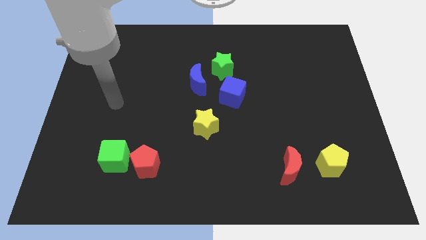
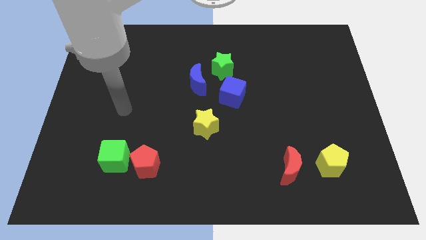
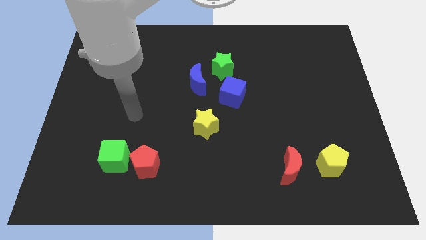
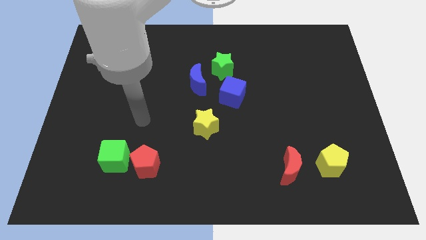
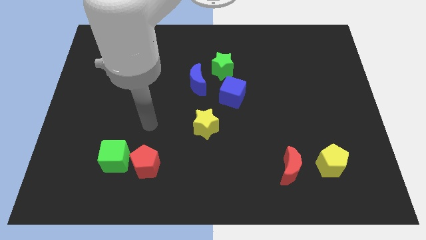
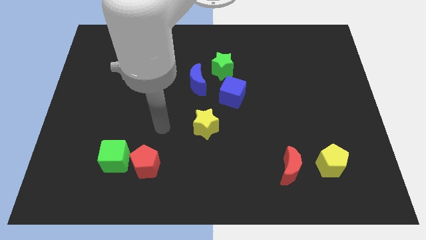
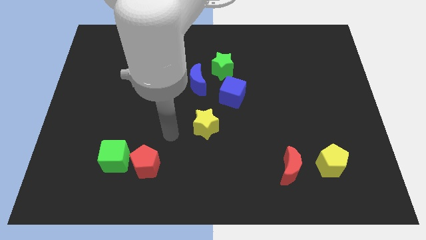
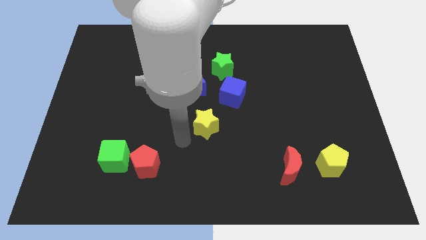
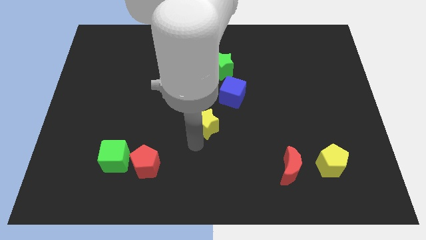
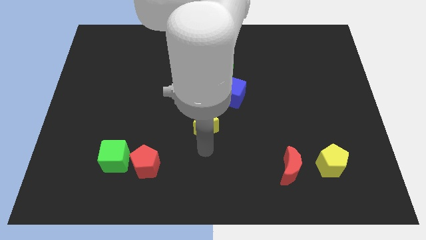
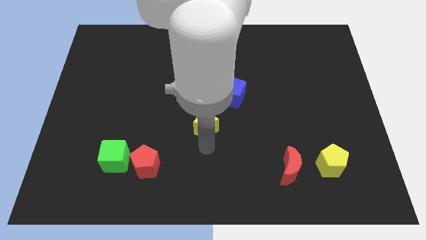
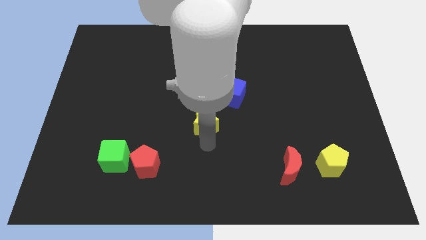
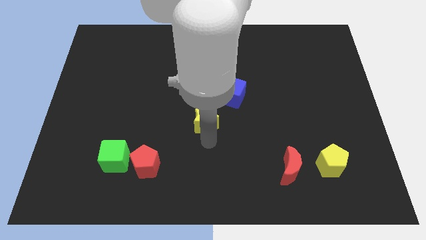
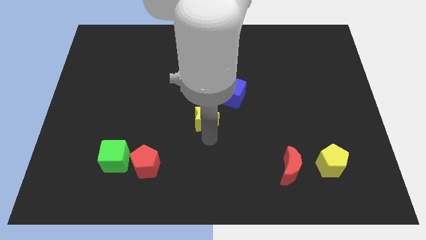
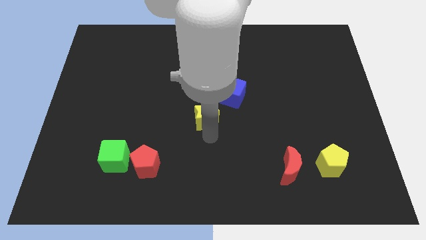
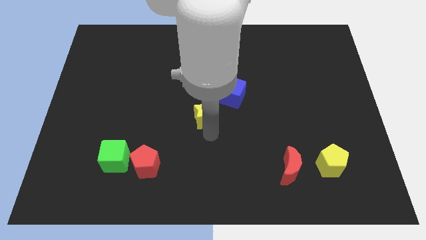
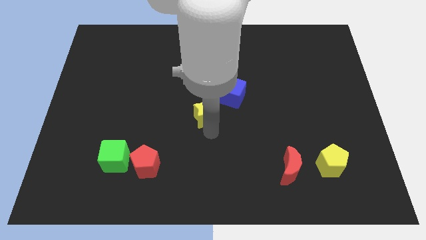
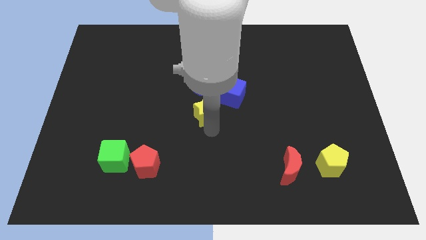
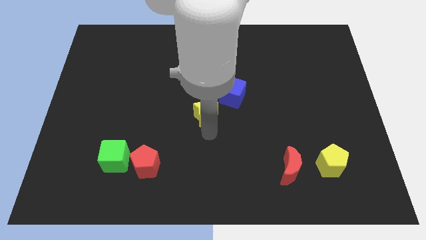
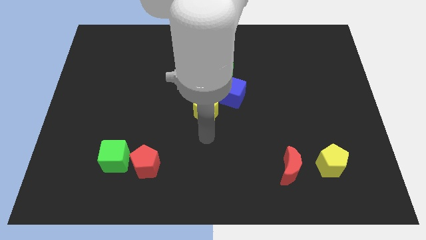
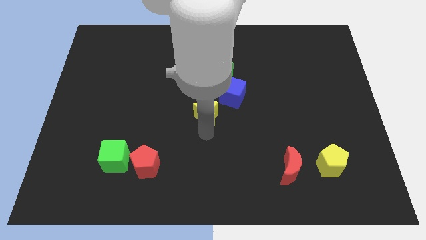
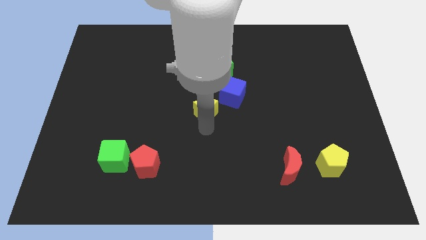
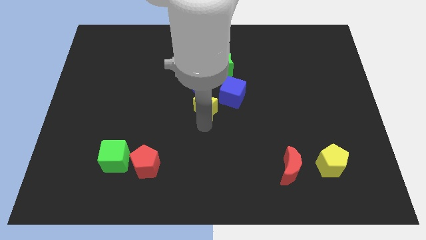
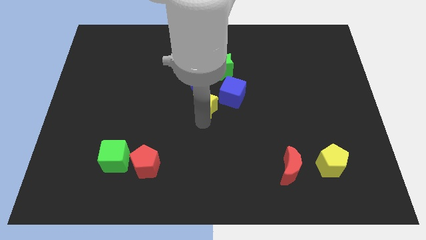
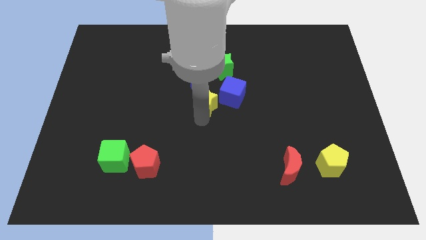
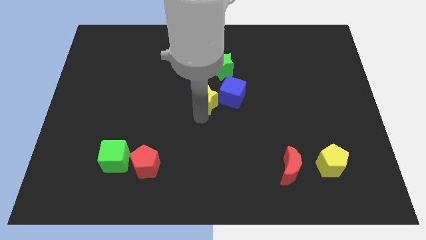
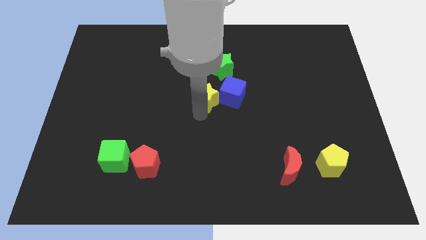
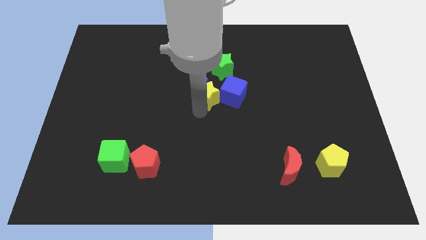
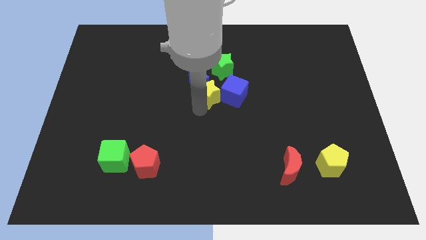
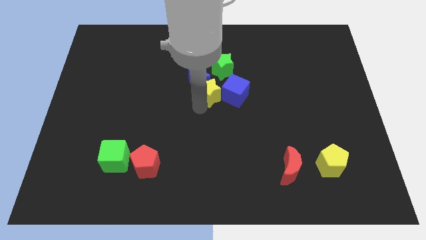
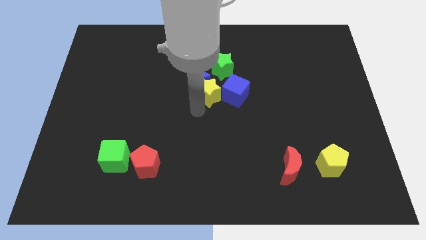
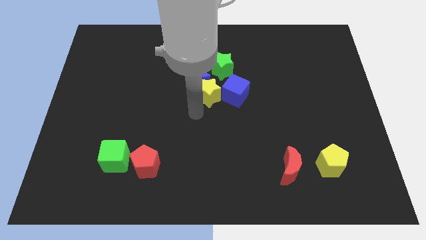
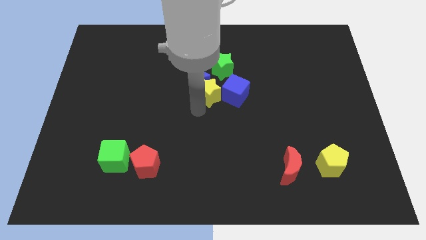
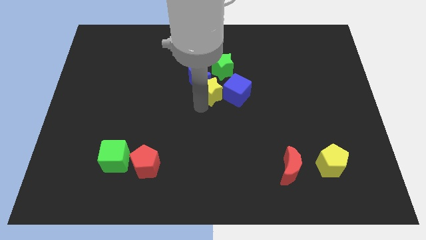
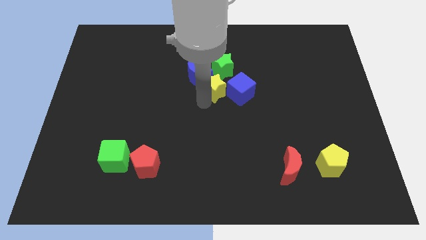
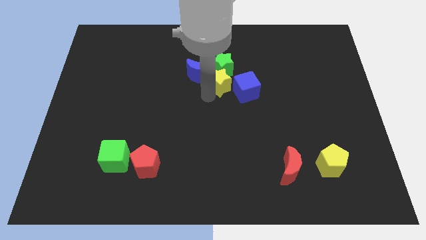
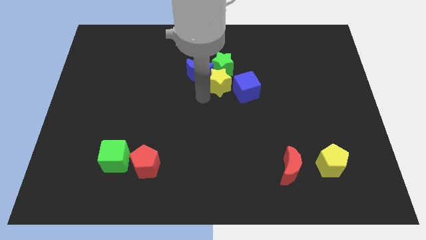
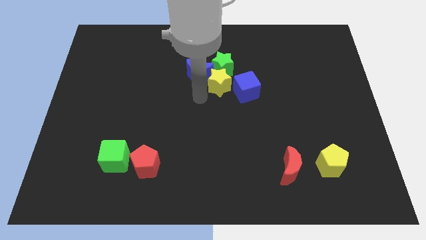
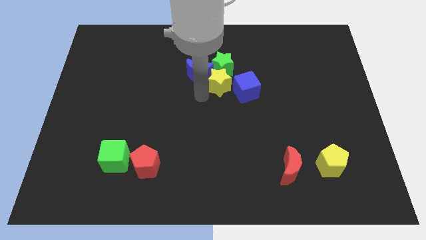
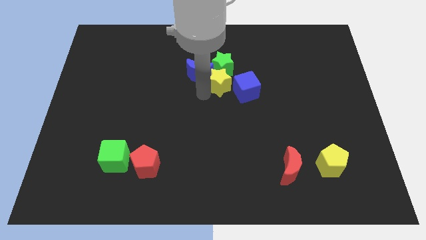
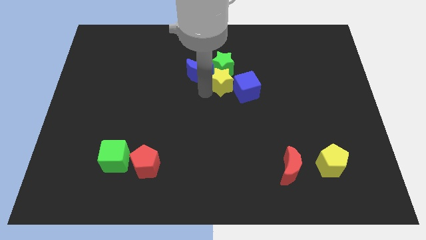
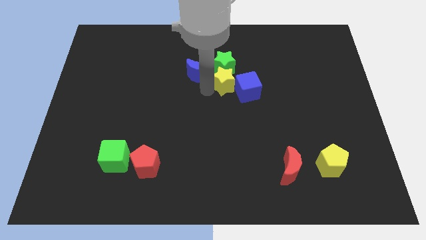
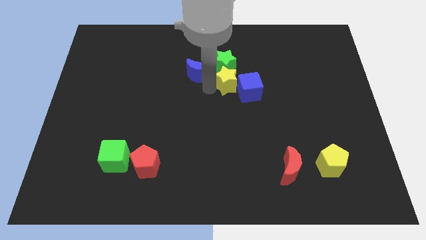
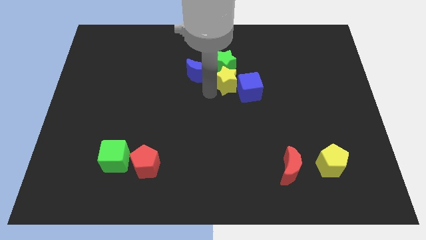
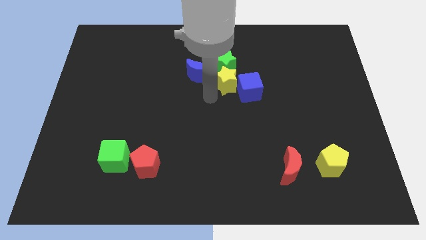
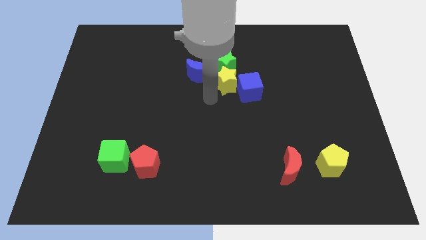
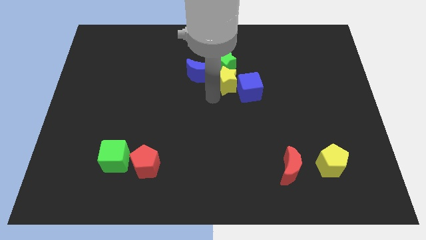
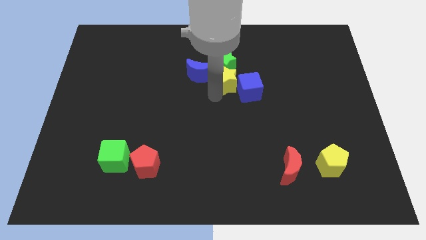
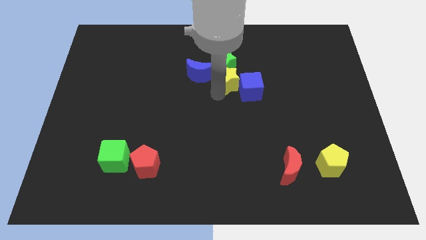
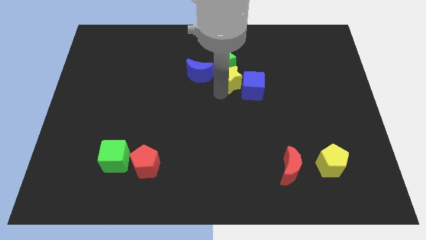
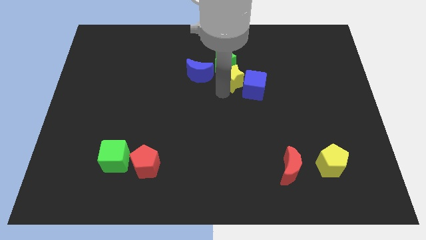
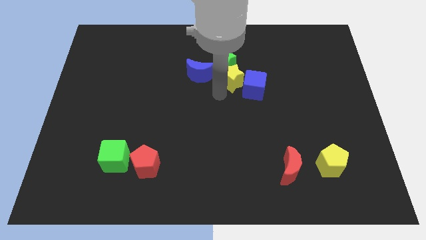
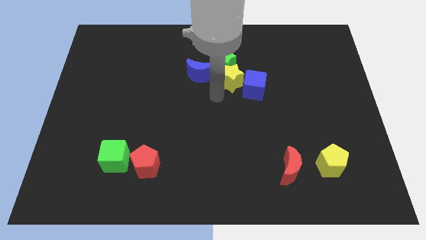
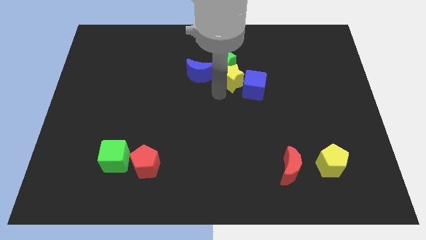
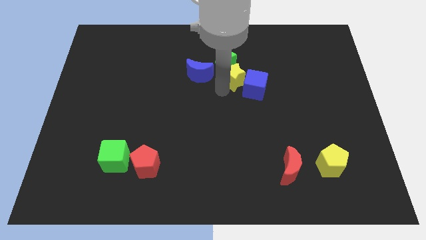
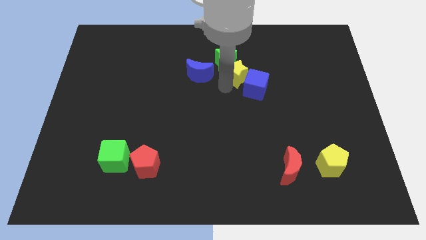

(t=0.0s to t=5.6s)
move the yellow star to the top side of the blue cube

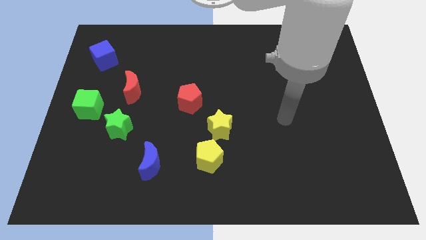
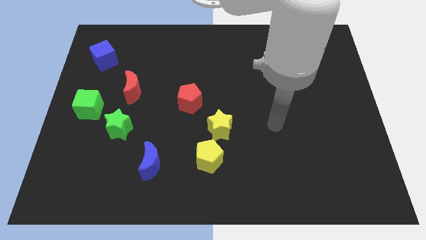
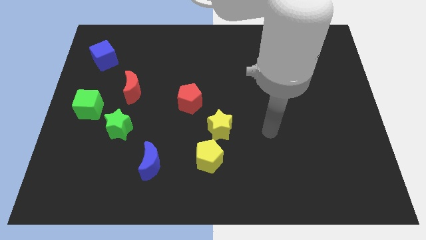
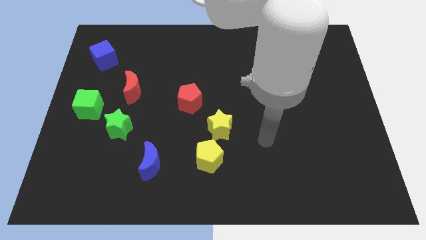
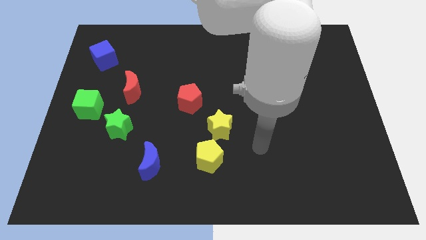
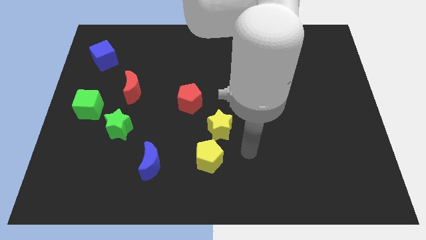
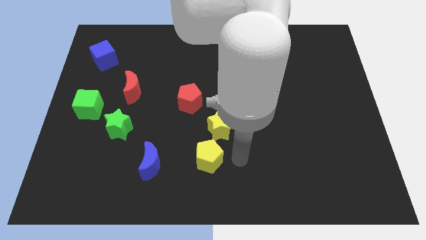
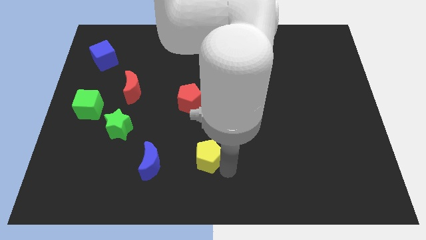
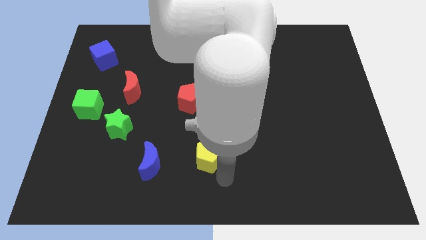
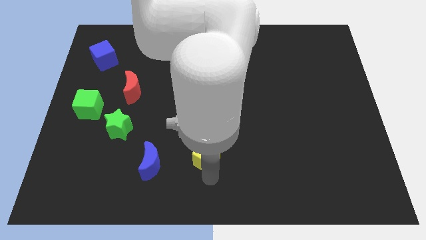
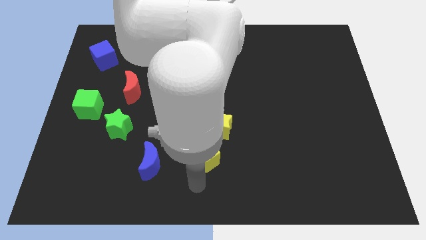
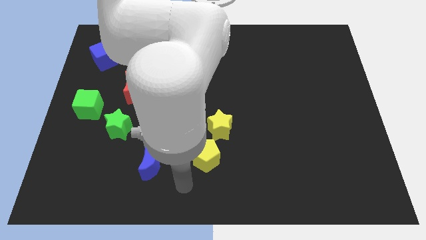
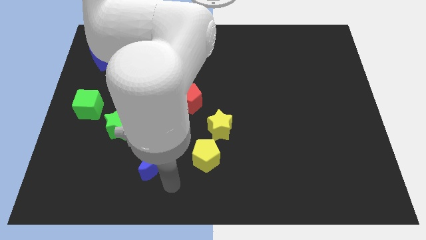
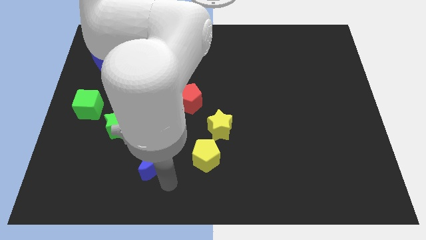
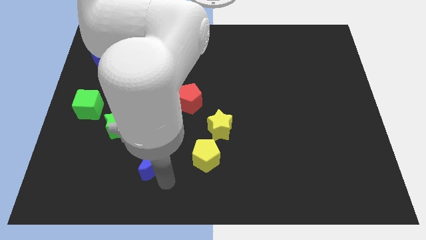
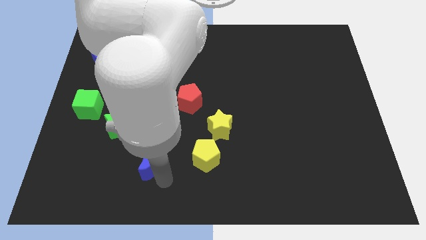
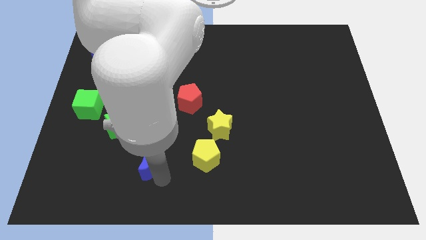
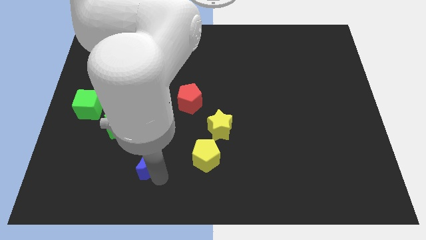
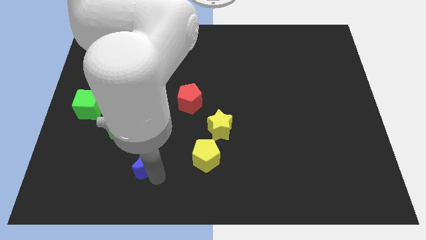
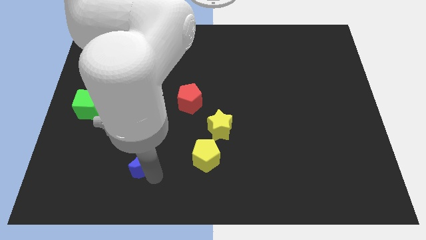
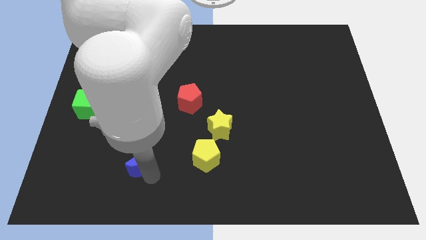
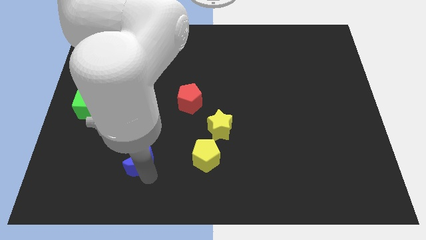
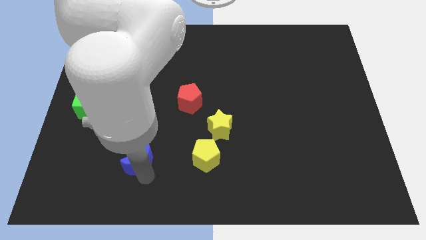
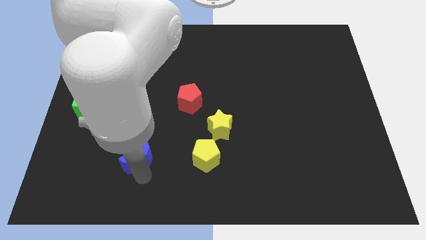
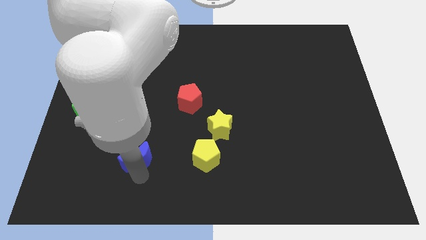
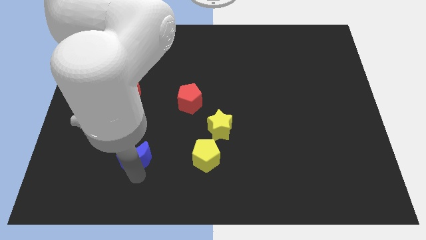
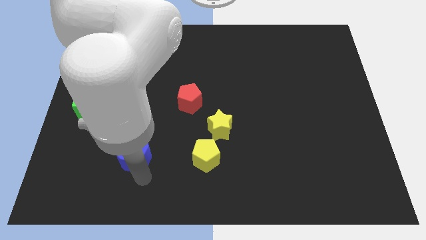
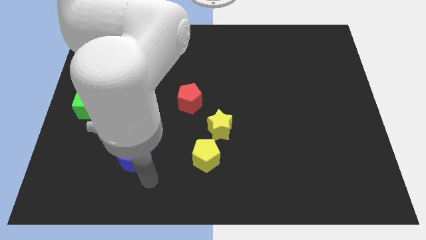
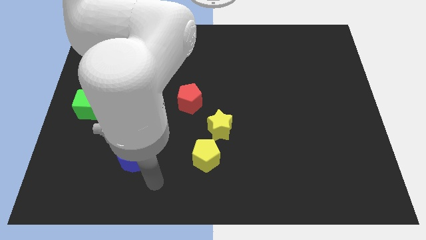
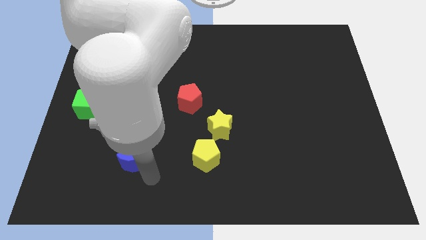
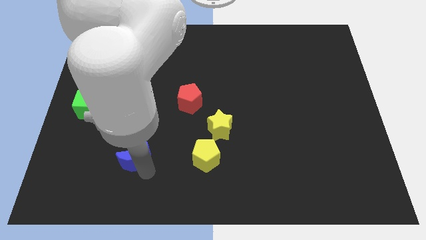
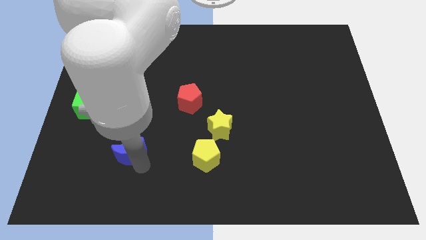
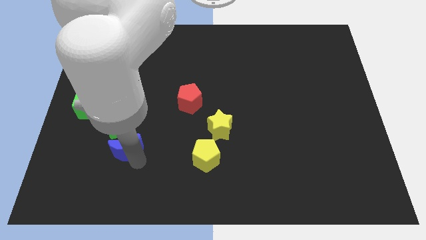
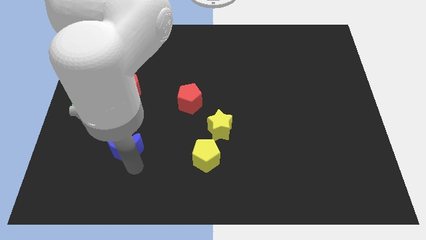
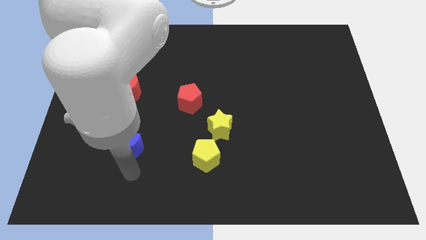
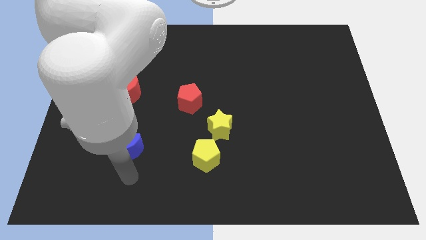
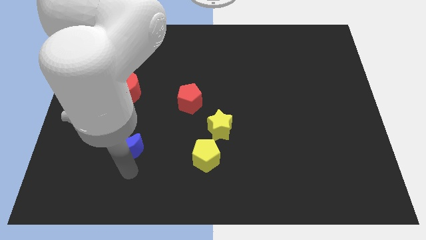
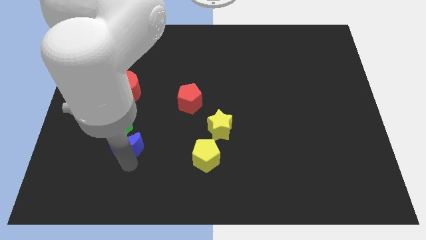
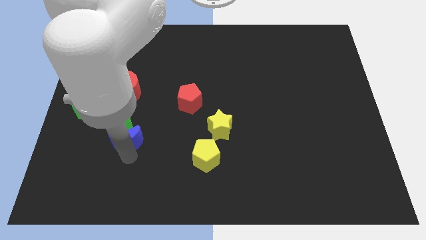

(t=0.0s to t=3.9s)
put the blue moon below the red moon
